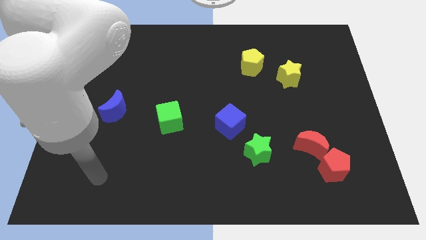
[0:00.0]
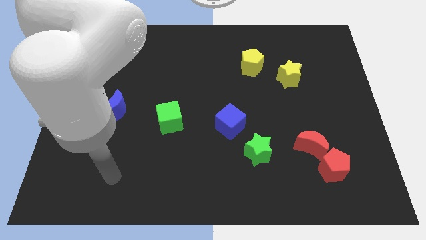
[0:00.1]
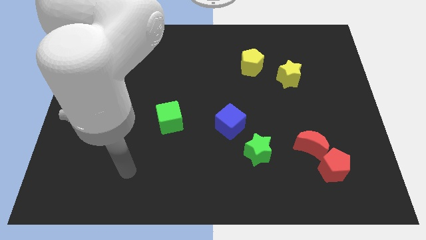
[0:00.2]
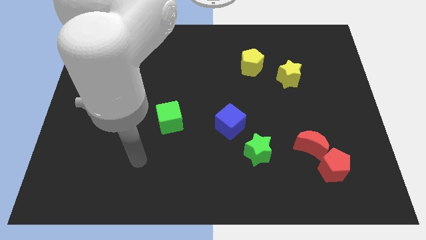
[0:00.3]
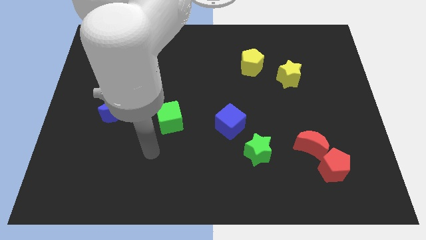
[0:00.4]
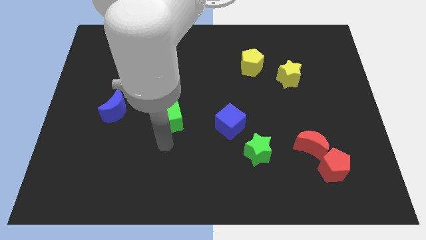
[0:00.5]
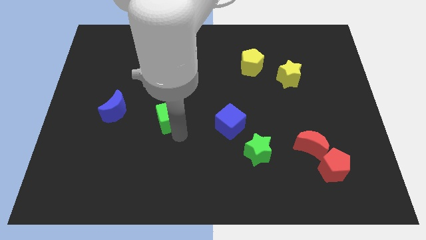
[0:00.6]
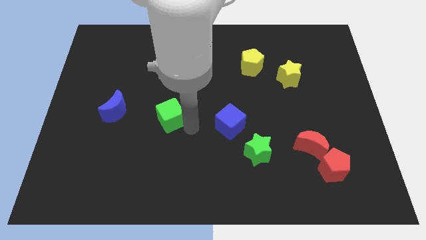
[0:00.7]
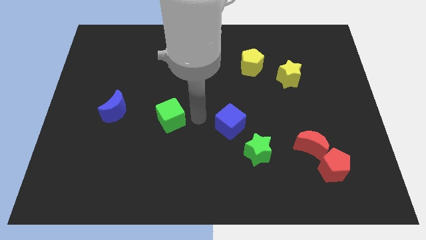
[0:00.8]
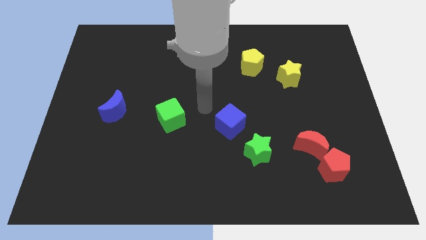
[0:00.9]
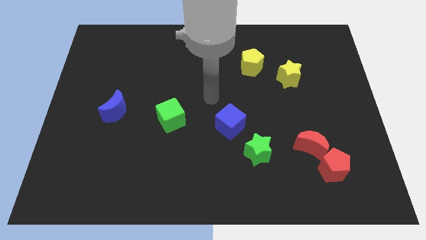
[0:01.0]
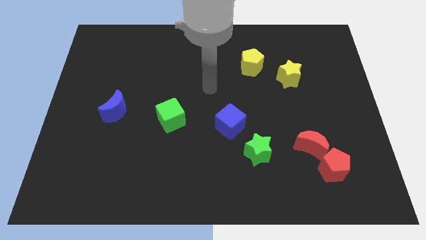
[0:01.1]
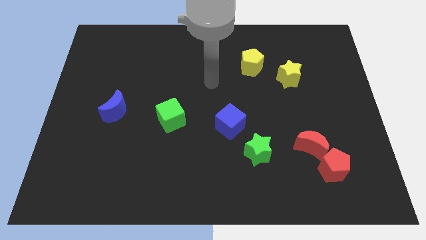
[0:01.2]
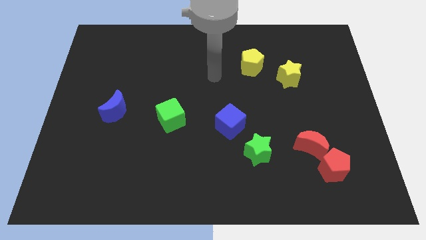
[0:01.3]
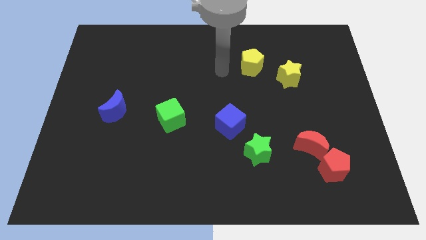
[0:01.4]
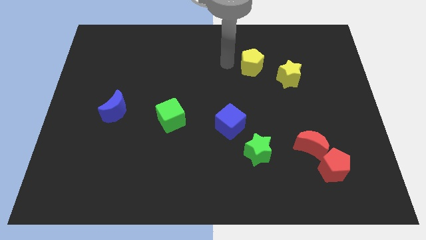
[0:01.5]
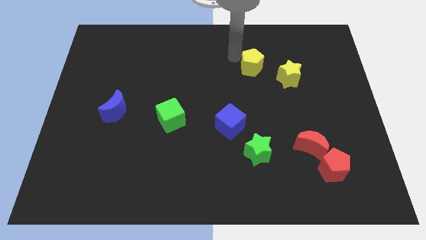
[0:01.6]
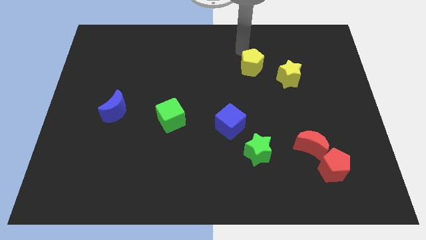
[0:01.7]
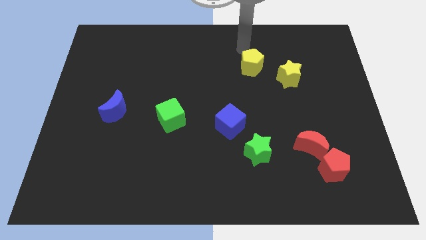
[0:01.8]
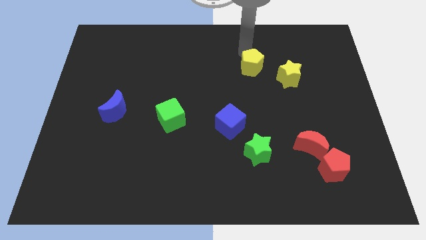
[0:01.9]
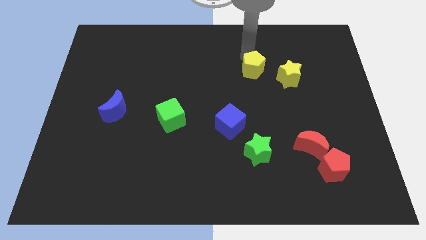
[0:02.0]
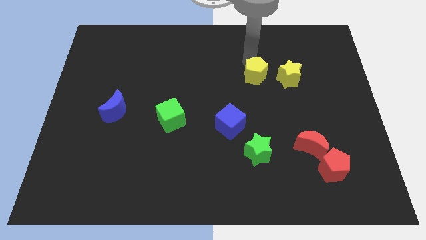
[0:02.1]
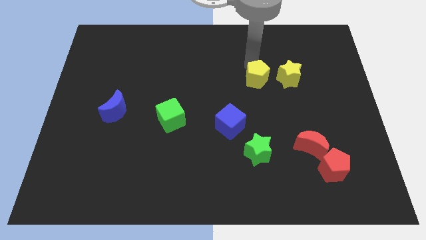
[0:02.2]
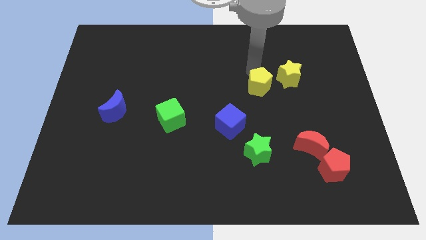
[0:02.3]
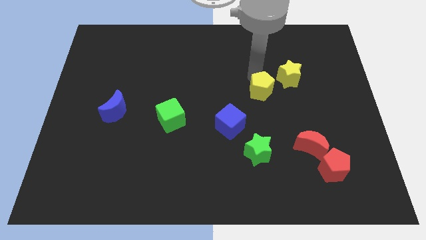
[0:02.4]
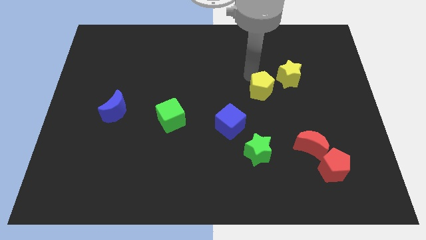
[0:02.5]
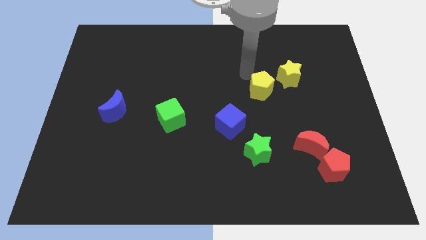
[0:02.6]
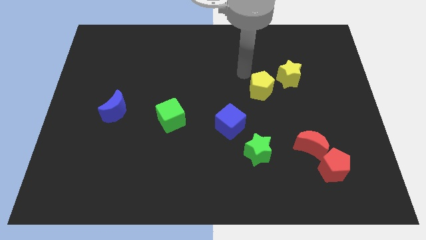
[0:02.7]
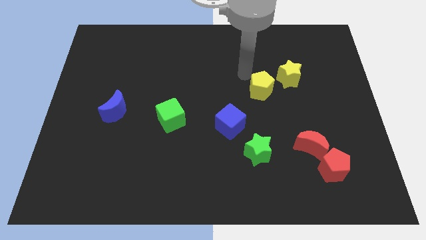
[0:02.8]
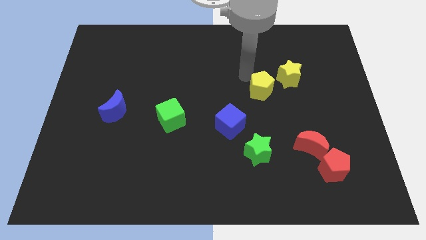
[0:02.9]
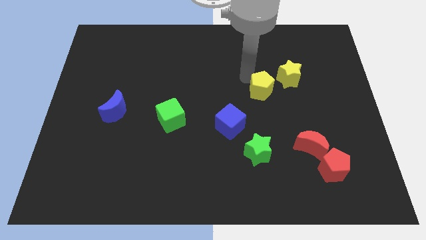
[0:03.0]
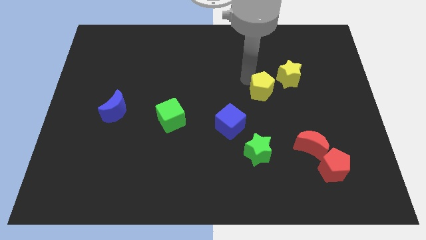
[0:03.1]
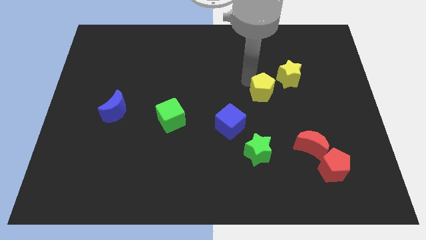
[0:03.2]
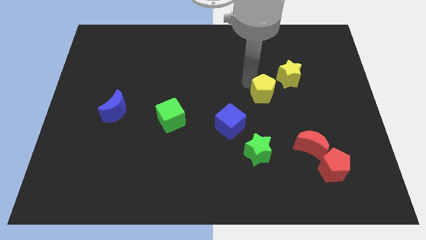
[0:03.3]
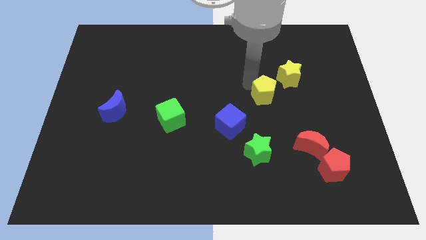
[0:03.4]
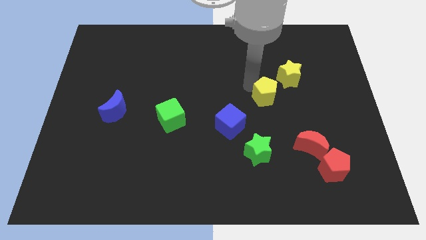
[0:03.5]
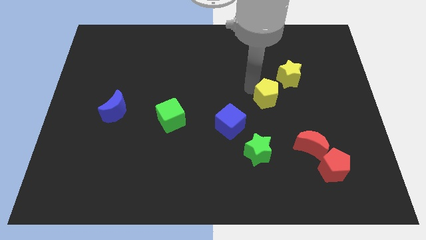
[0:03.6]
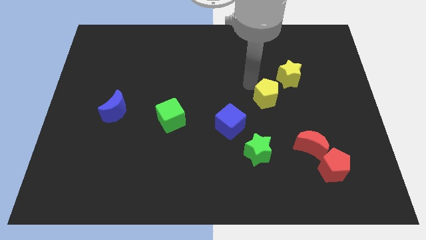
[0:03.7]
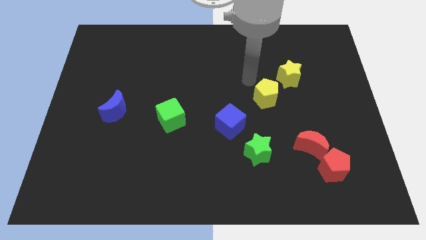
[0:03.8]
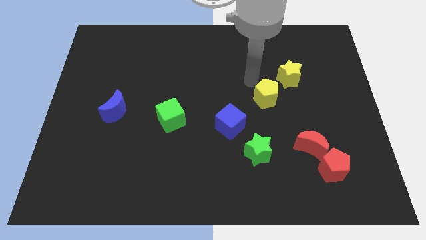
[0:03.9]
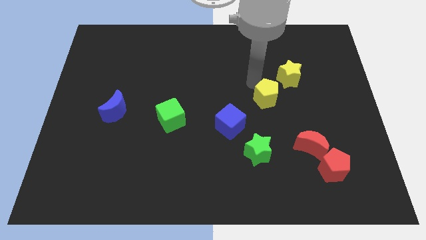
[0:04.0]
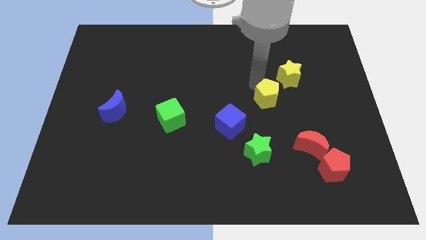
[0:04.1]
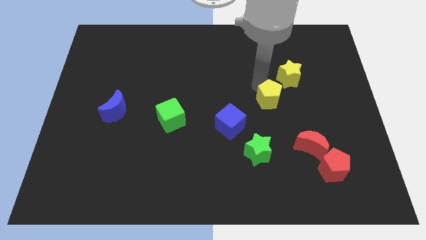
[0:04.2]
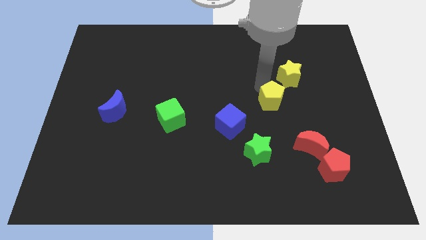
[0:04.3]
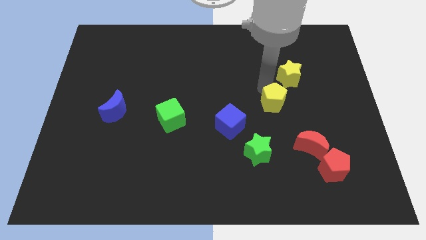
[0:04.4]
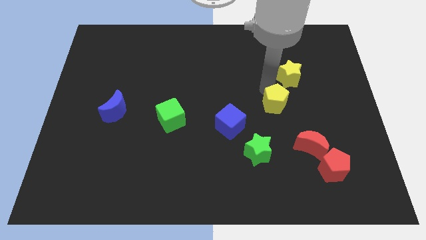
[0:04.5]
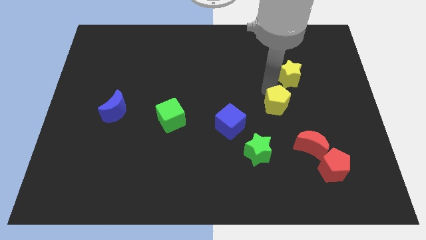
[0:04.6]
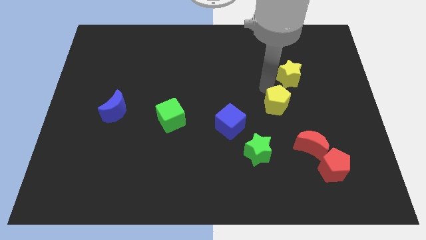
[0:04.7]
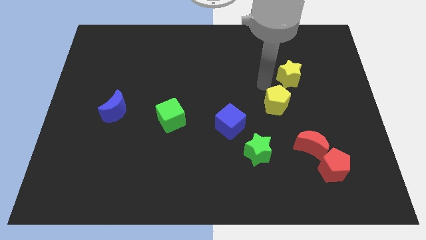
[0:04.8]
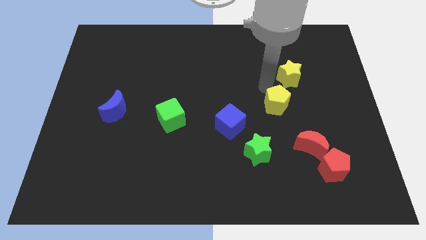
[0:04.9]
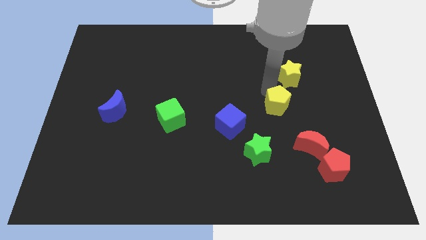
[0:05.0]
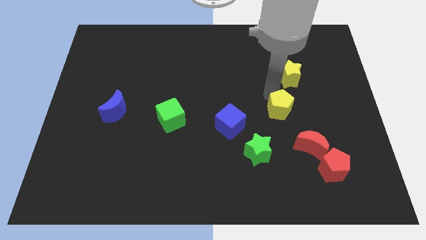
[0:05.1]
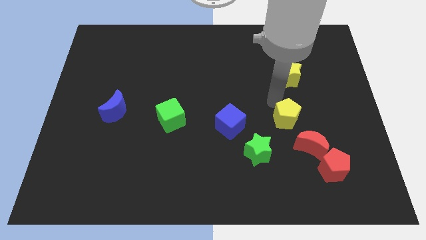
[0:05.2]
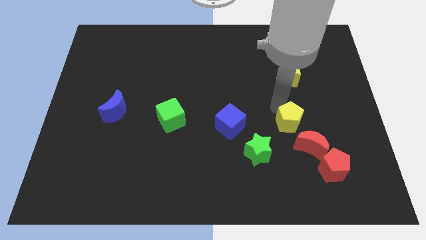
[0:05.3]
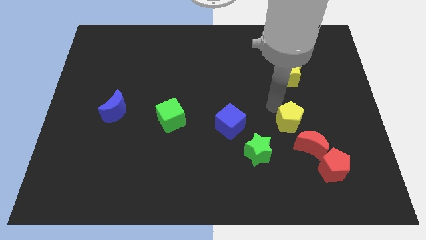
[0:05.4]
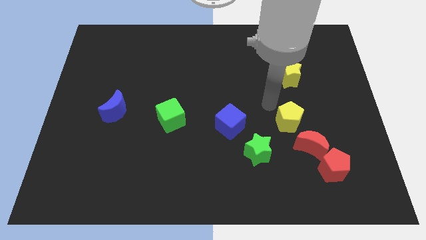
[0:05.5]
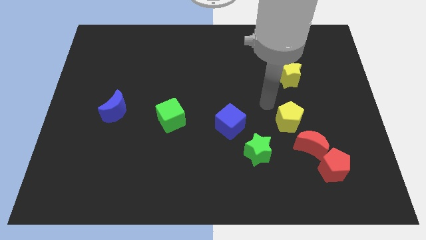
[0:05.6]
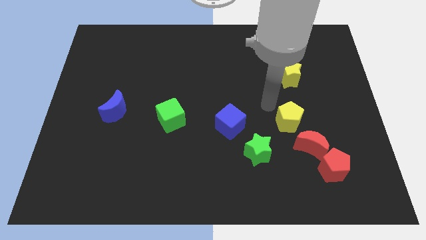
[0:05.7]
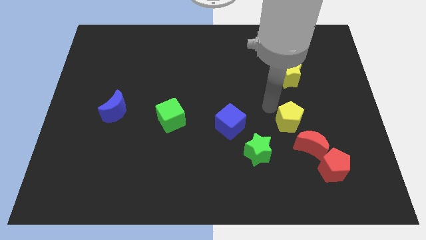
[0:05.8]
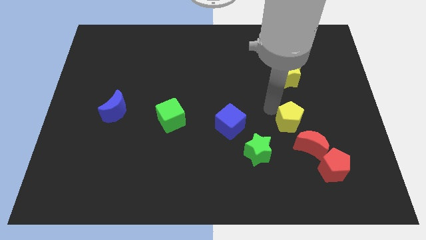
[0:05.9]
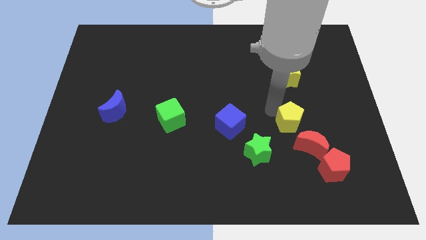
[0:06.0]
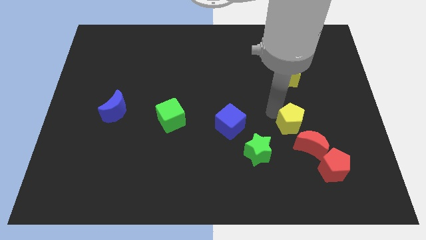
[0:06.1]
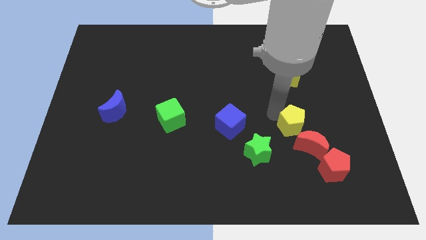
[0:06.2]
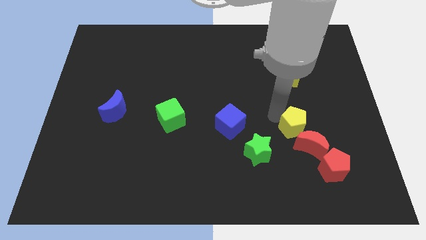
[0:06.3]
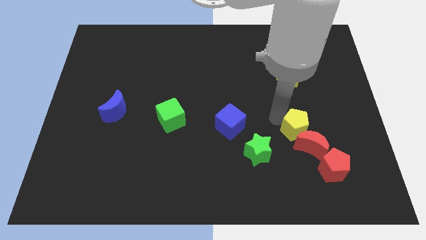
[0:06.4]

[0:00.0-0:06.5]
slide the yellow pentagon next to the red moon

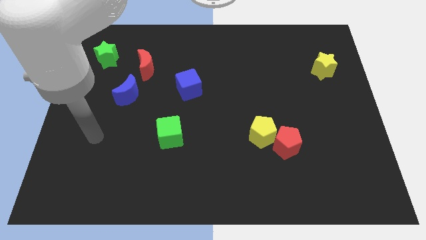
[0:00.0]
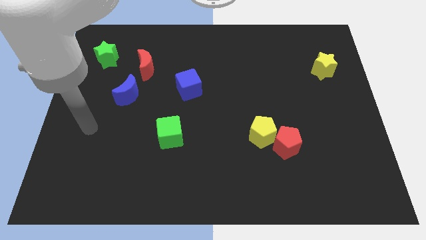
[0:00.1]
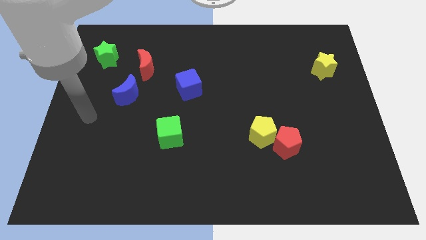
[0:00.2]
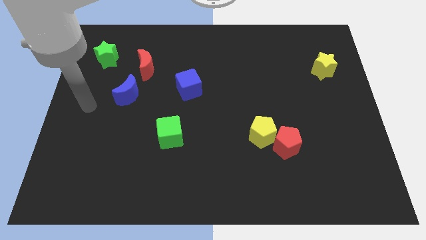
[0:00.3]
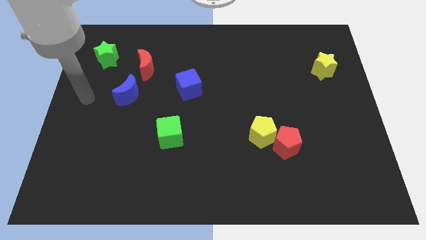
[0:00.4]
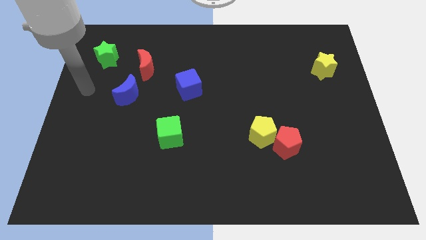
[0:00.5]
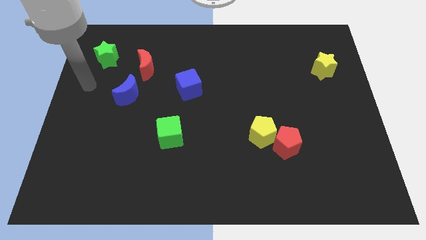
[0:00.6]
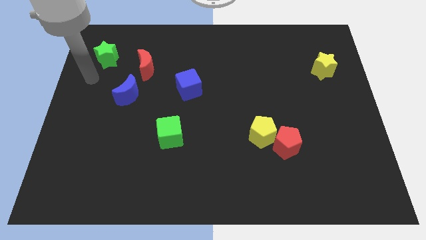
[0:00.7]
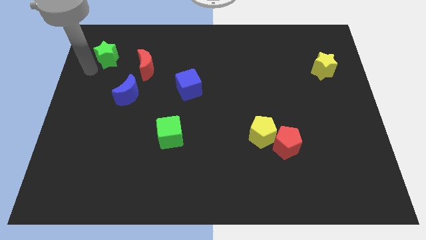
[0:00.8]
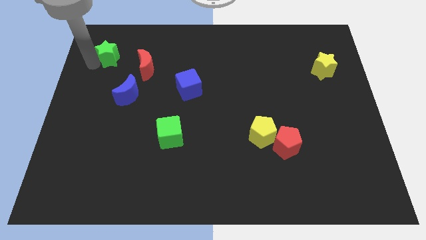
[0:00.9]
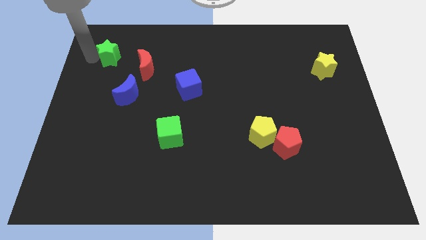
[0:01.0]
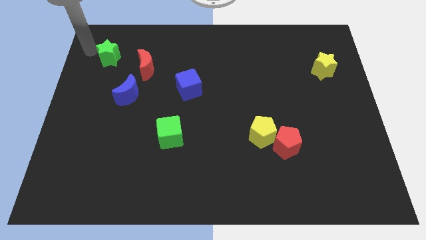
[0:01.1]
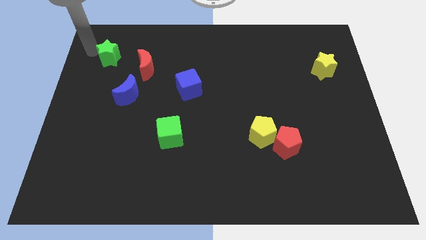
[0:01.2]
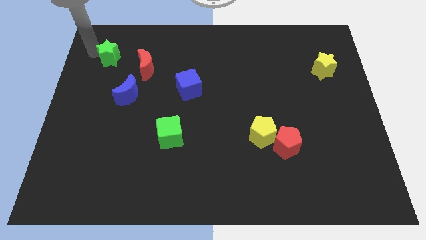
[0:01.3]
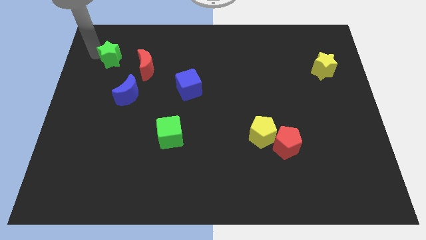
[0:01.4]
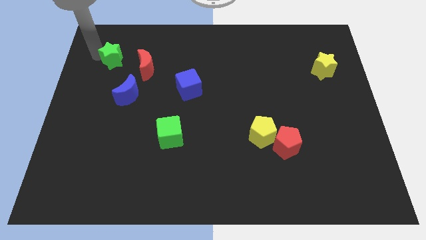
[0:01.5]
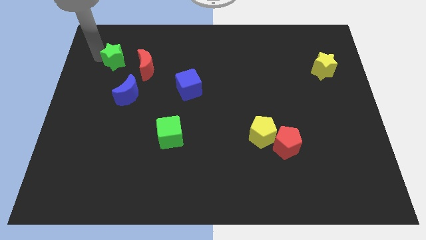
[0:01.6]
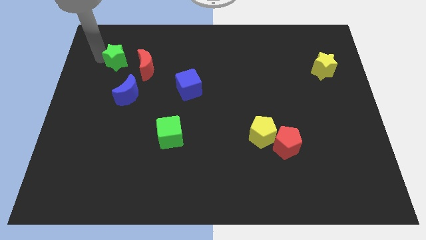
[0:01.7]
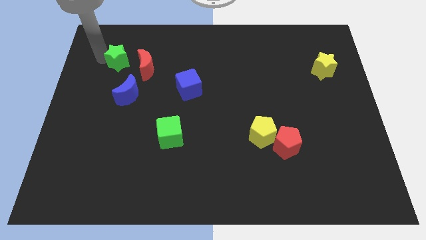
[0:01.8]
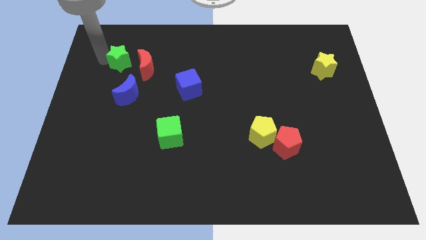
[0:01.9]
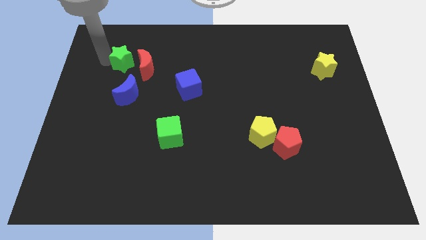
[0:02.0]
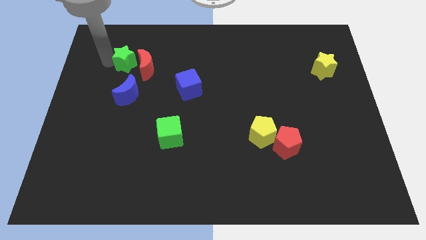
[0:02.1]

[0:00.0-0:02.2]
slide the green star to the red moon
